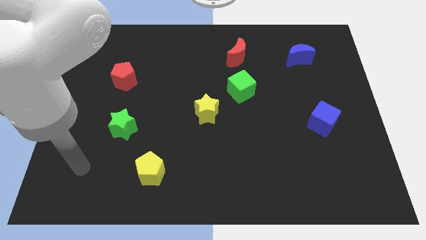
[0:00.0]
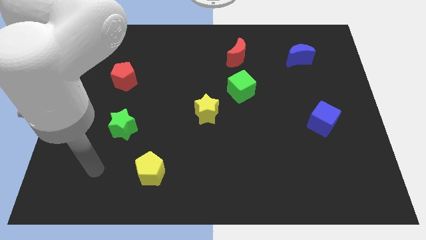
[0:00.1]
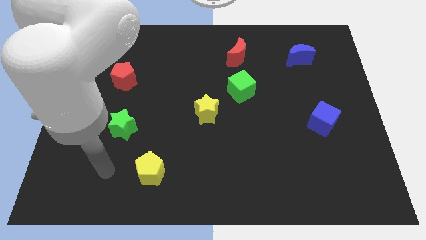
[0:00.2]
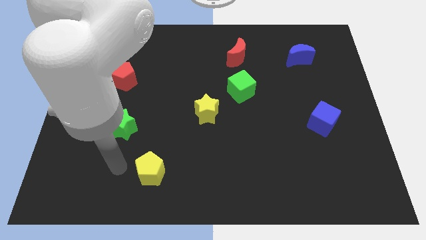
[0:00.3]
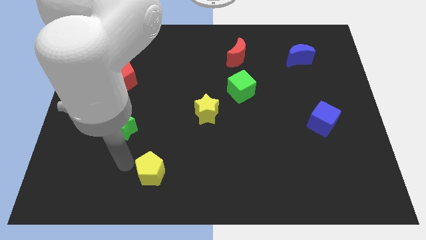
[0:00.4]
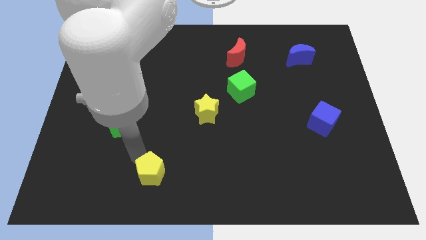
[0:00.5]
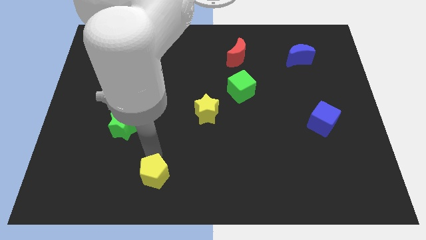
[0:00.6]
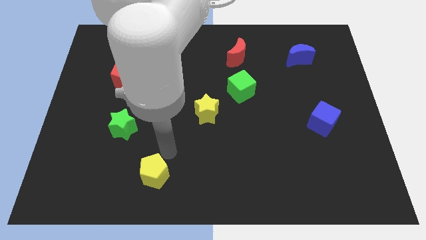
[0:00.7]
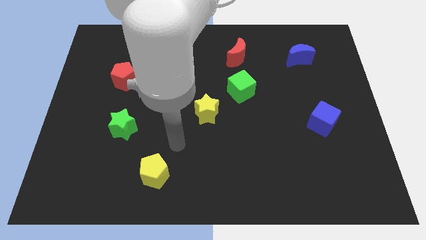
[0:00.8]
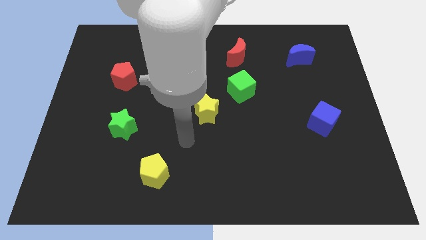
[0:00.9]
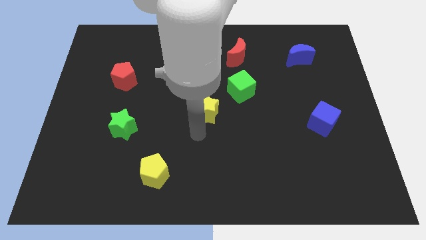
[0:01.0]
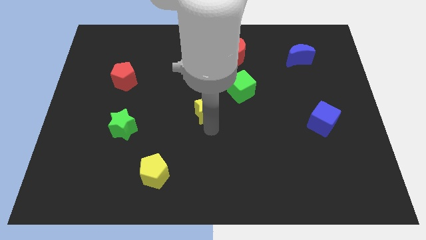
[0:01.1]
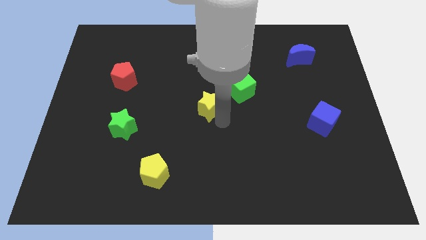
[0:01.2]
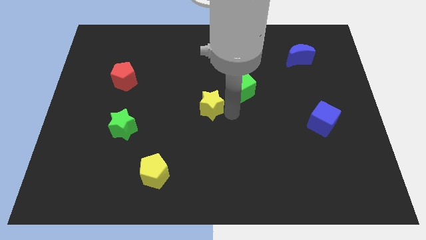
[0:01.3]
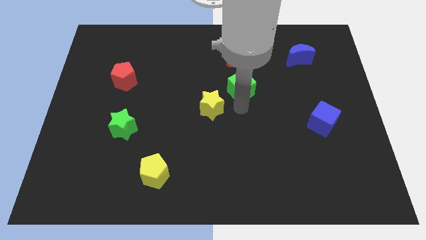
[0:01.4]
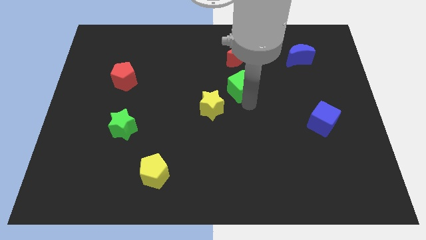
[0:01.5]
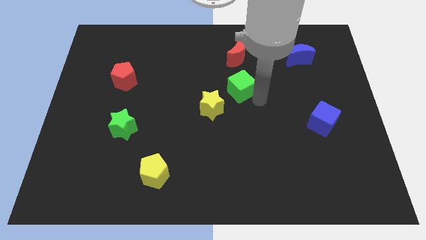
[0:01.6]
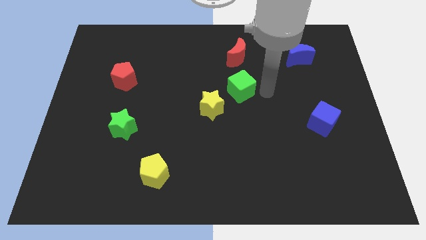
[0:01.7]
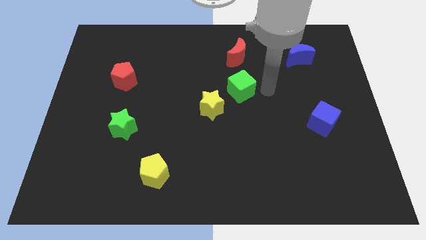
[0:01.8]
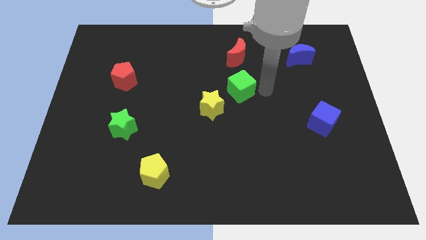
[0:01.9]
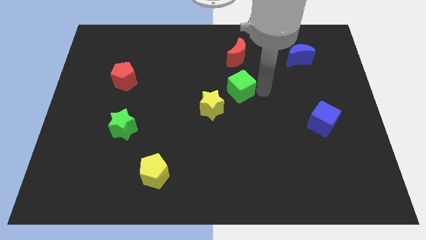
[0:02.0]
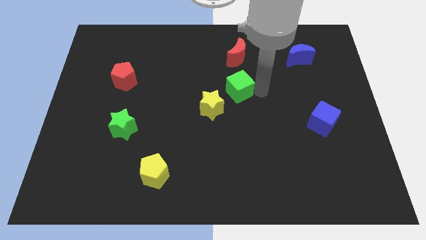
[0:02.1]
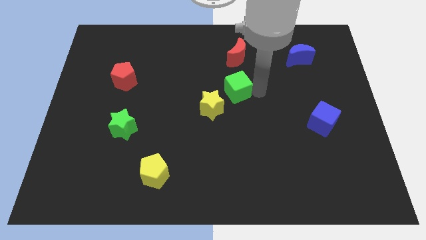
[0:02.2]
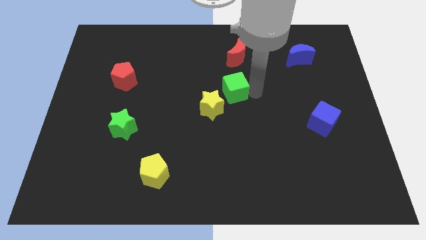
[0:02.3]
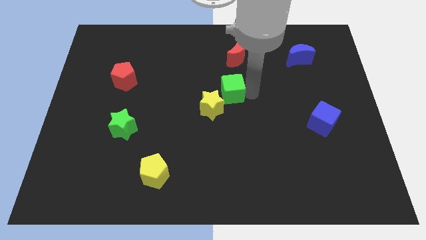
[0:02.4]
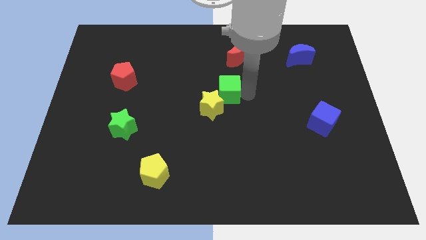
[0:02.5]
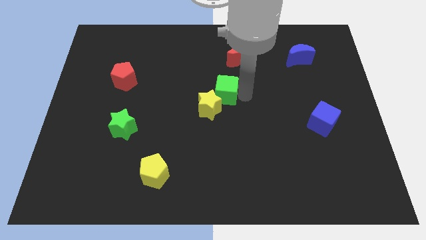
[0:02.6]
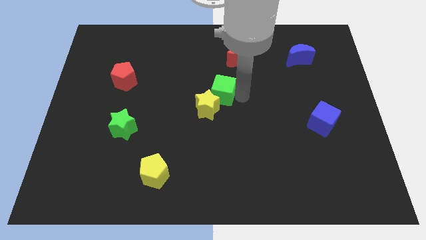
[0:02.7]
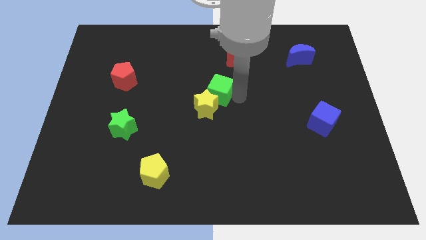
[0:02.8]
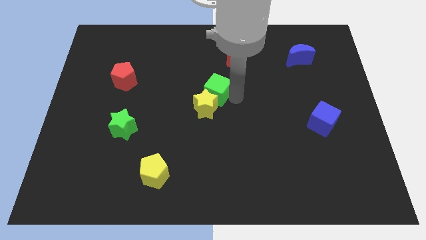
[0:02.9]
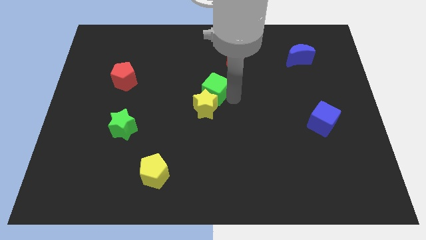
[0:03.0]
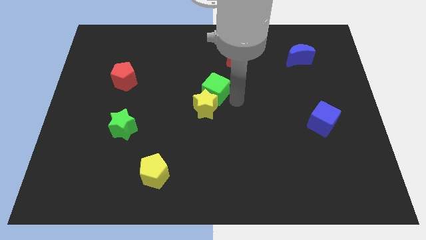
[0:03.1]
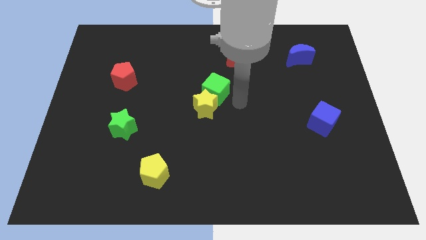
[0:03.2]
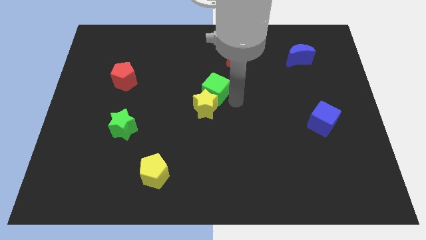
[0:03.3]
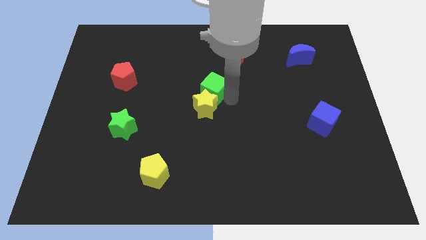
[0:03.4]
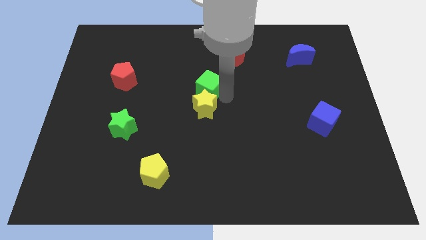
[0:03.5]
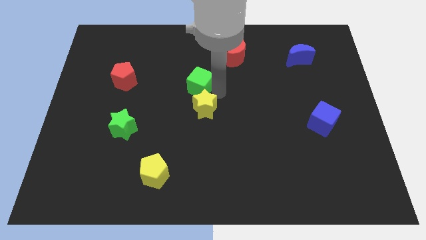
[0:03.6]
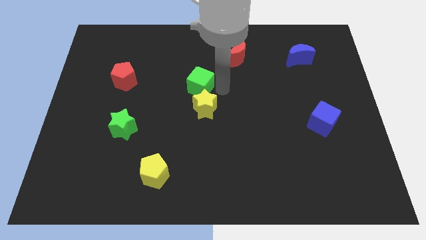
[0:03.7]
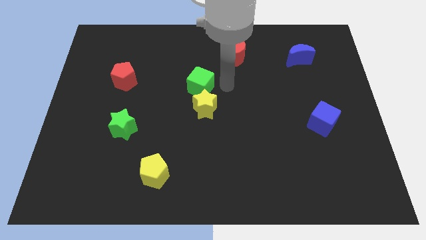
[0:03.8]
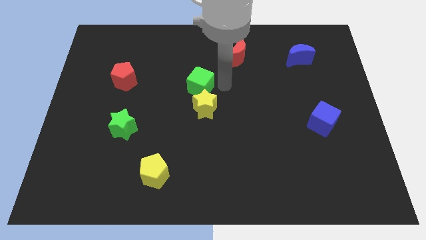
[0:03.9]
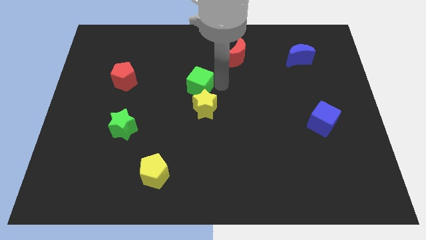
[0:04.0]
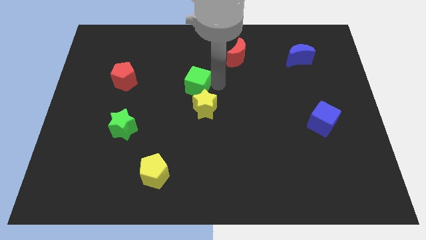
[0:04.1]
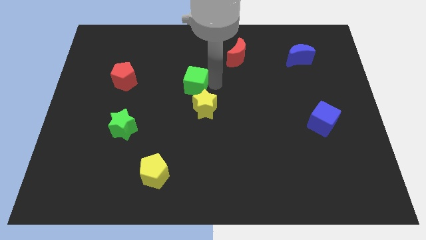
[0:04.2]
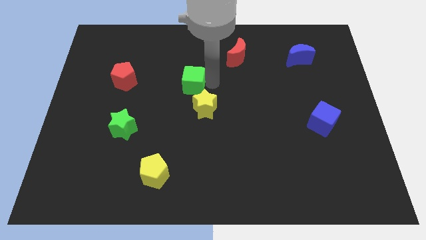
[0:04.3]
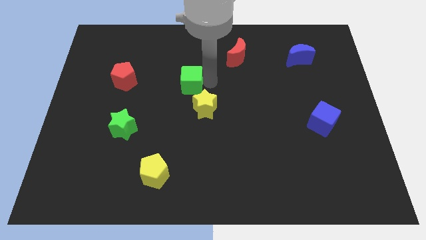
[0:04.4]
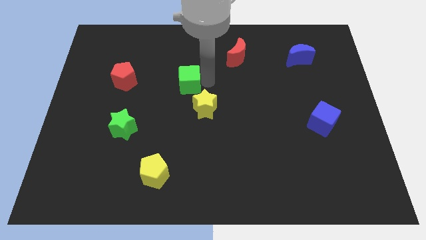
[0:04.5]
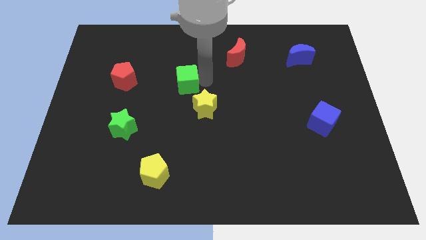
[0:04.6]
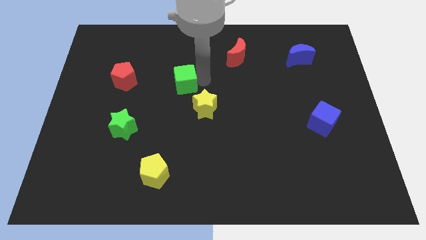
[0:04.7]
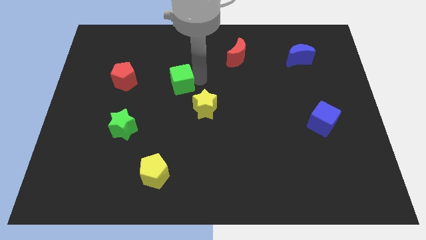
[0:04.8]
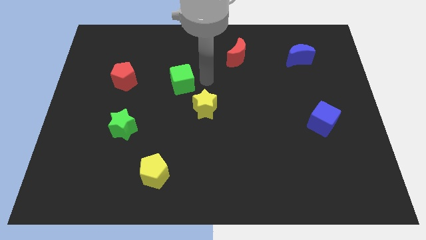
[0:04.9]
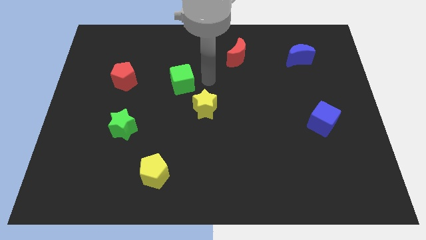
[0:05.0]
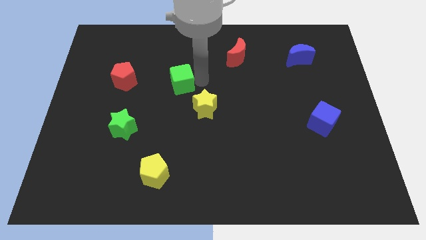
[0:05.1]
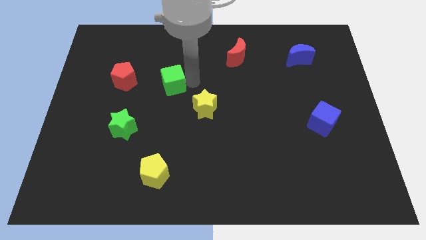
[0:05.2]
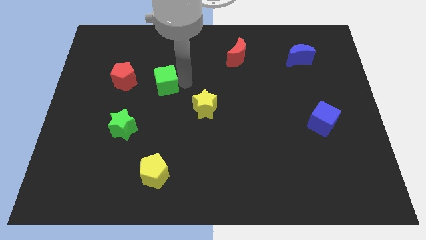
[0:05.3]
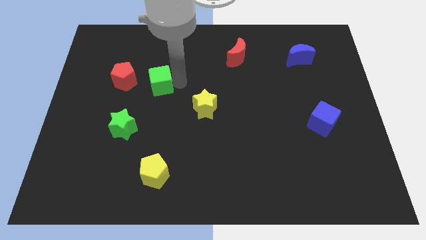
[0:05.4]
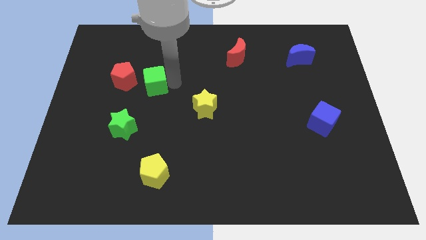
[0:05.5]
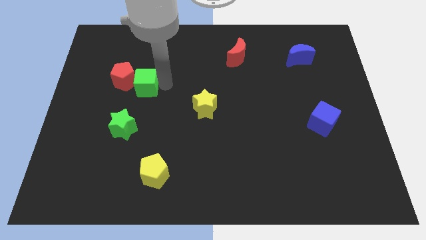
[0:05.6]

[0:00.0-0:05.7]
put the green cube to the red pentagon

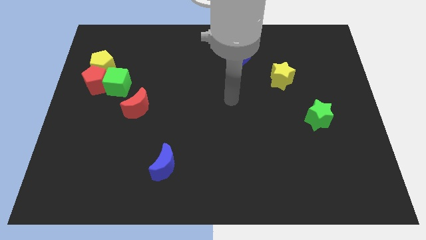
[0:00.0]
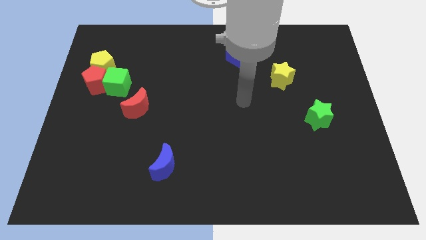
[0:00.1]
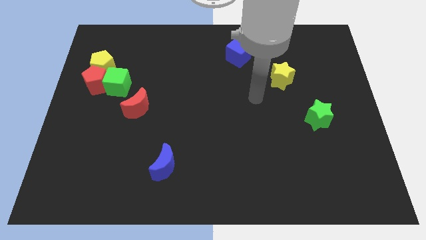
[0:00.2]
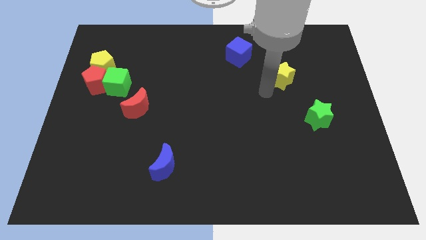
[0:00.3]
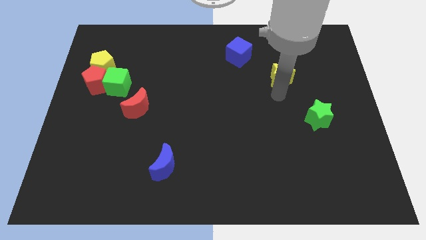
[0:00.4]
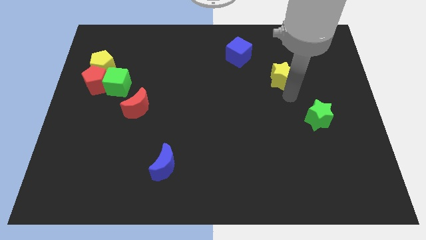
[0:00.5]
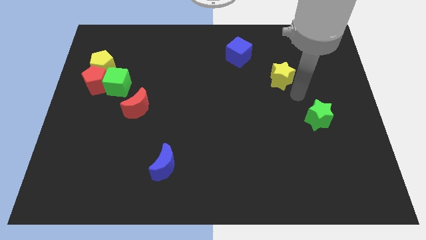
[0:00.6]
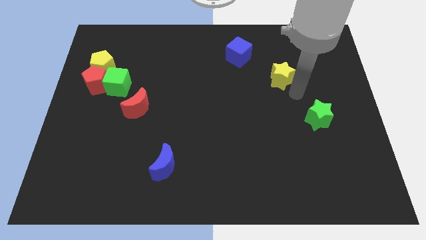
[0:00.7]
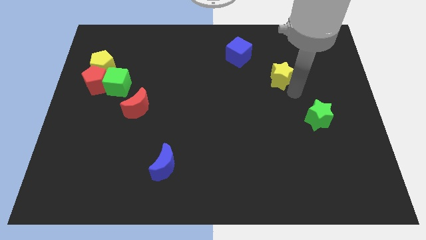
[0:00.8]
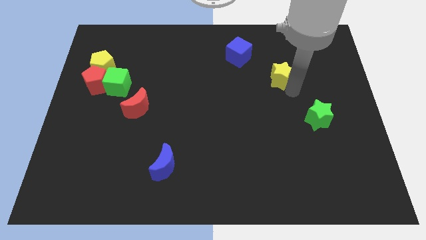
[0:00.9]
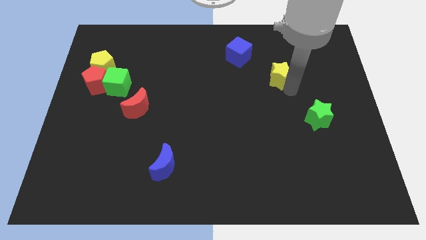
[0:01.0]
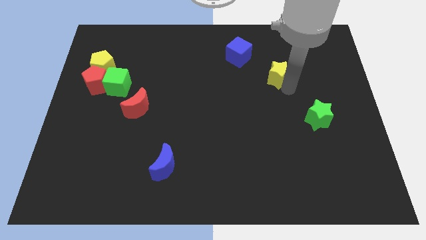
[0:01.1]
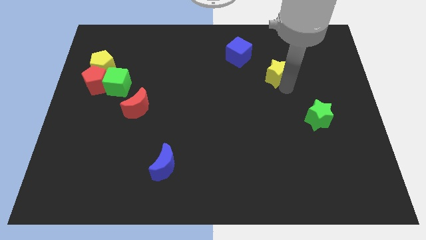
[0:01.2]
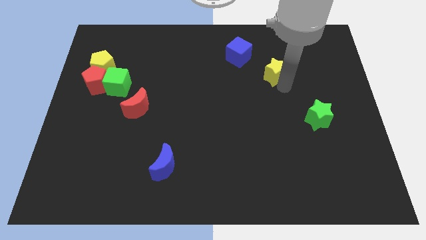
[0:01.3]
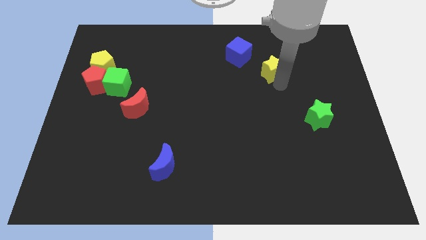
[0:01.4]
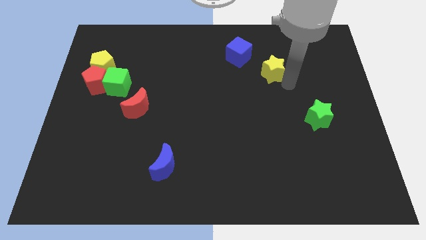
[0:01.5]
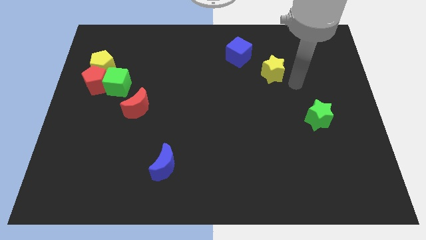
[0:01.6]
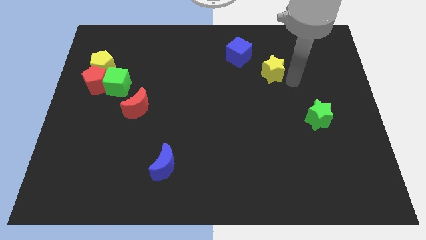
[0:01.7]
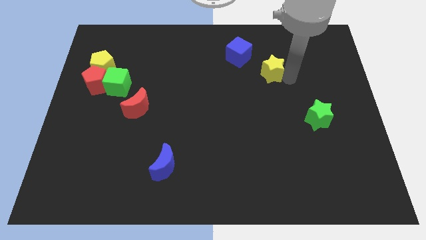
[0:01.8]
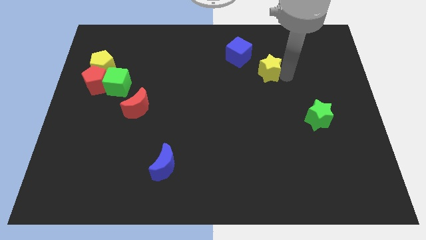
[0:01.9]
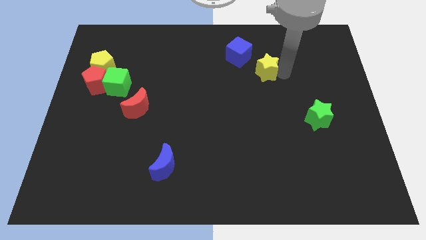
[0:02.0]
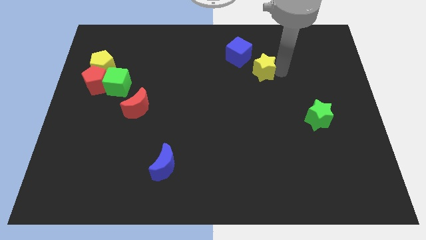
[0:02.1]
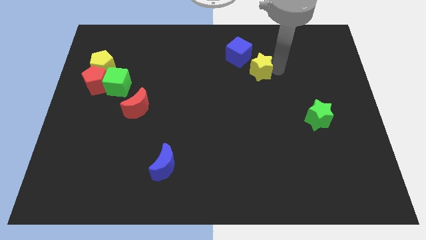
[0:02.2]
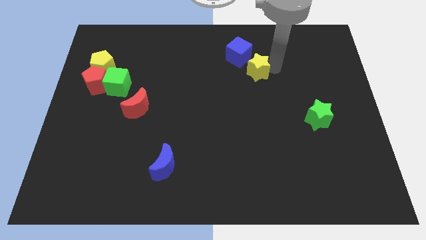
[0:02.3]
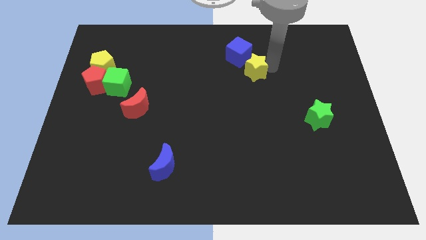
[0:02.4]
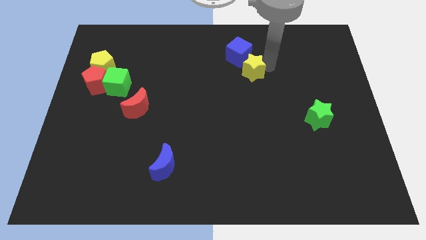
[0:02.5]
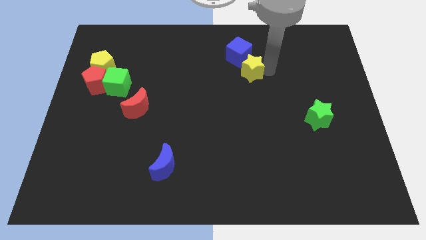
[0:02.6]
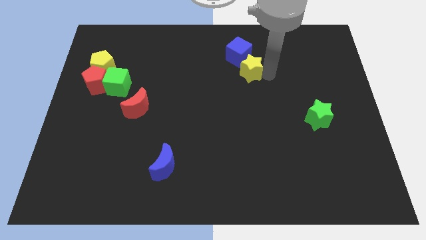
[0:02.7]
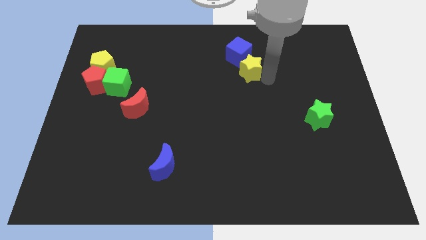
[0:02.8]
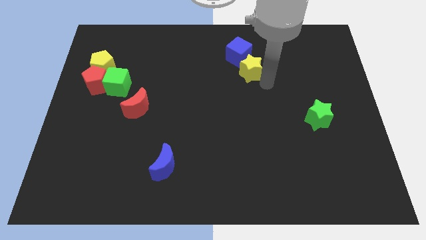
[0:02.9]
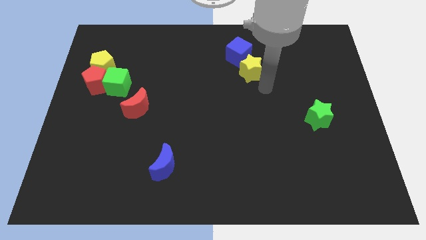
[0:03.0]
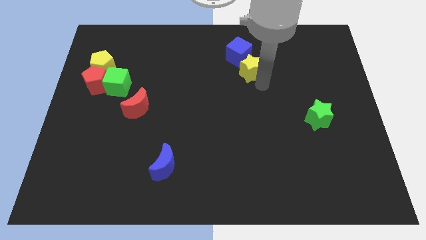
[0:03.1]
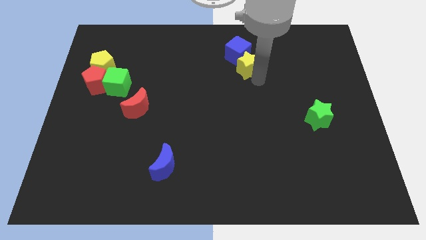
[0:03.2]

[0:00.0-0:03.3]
put the yellow star towards the blue cube
